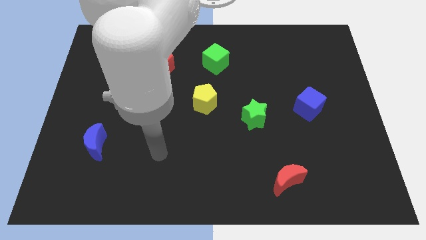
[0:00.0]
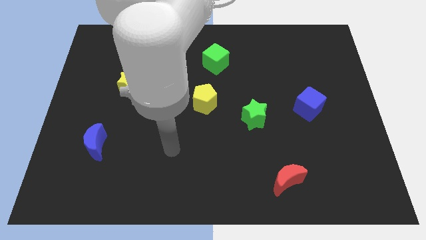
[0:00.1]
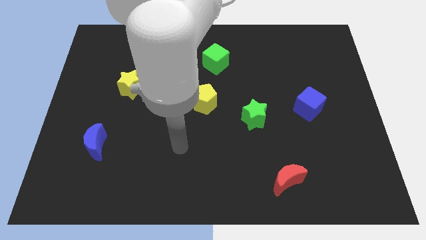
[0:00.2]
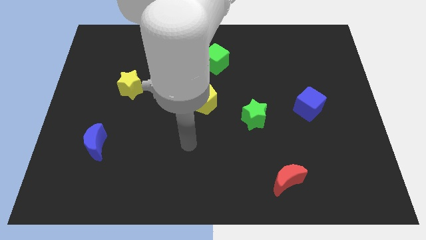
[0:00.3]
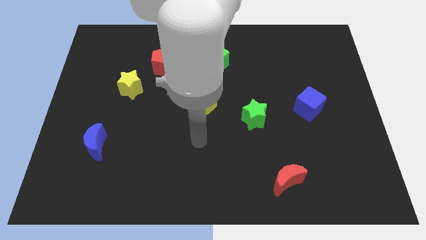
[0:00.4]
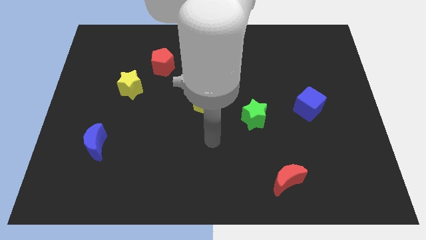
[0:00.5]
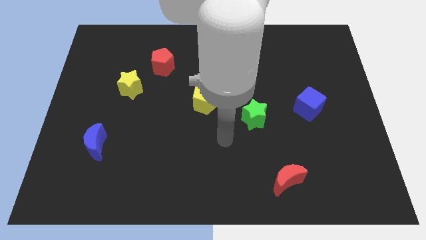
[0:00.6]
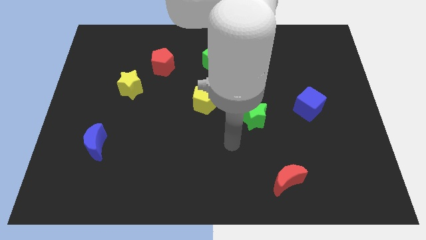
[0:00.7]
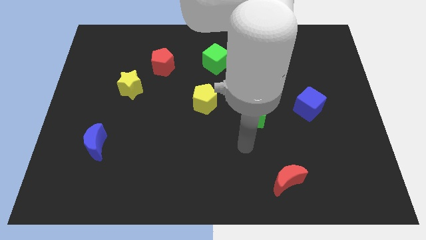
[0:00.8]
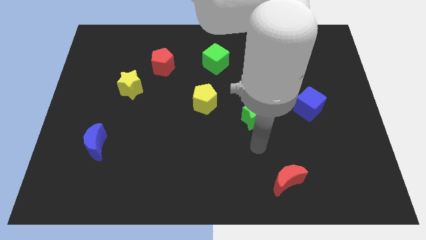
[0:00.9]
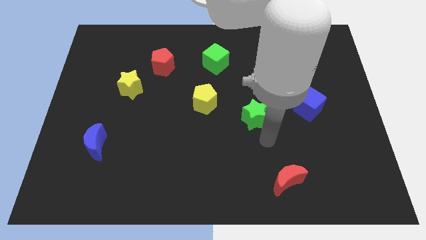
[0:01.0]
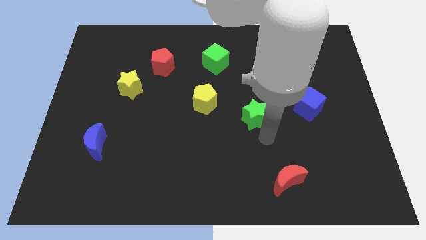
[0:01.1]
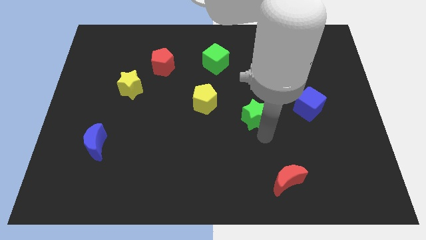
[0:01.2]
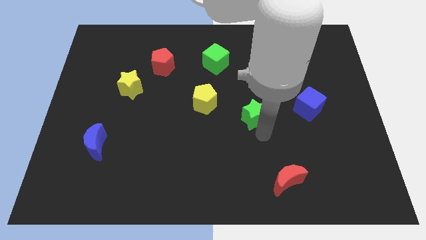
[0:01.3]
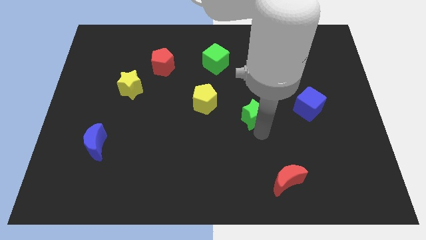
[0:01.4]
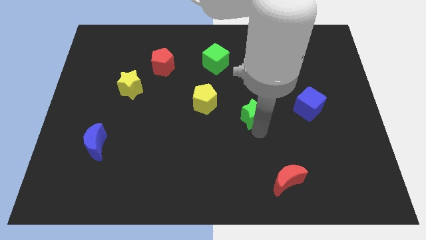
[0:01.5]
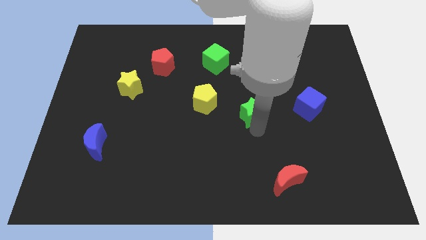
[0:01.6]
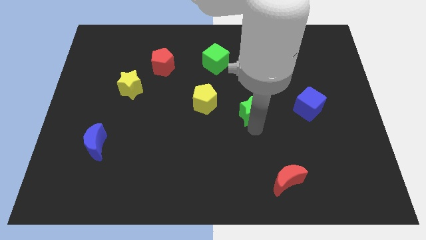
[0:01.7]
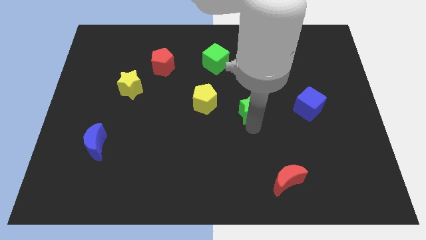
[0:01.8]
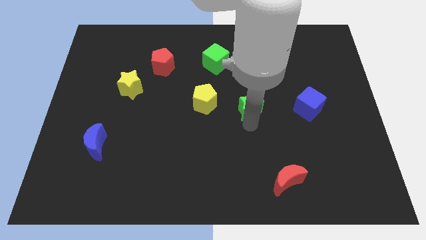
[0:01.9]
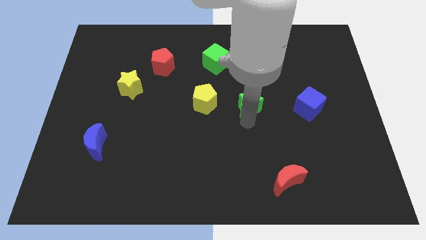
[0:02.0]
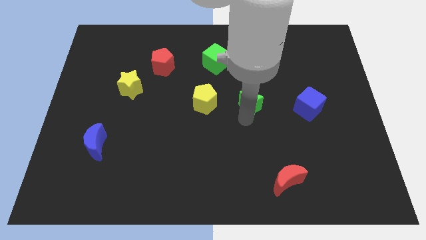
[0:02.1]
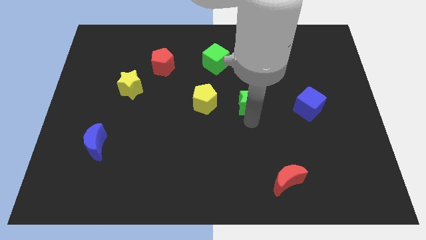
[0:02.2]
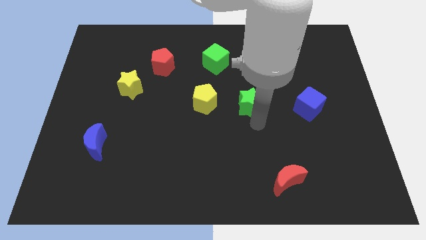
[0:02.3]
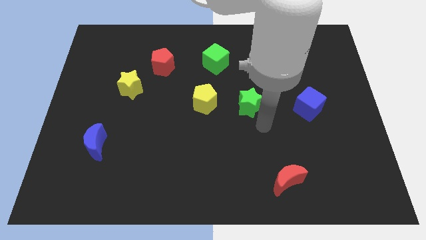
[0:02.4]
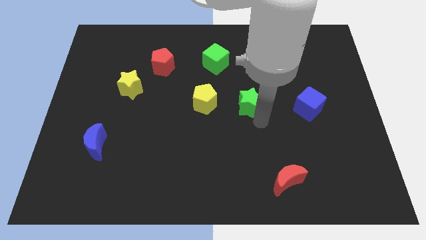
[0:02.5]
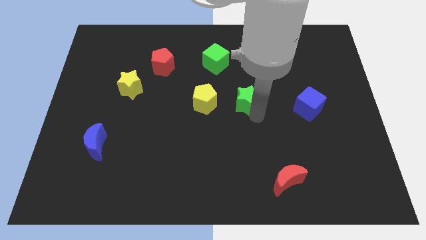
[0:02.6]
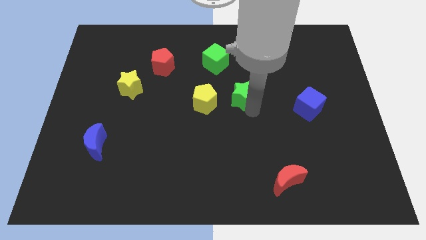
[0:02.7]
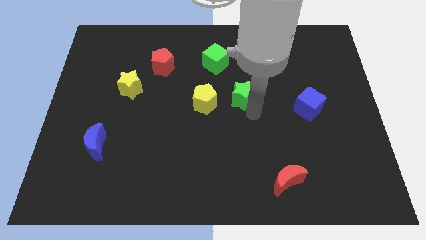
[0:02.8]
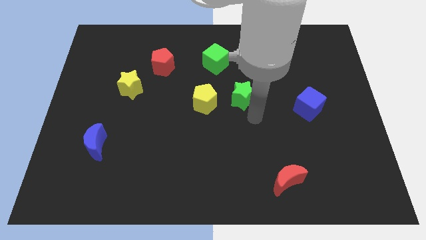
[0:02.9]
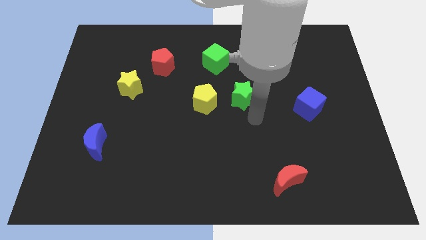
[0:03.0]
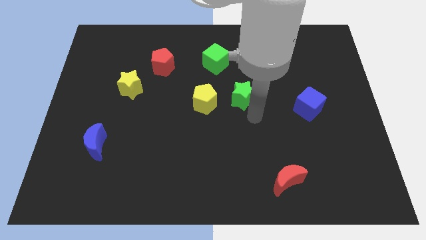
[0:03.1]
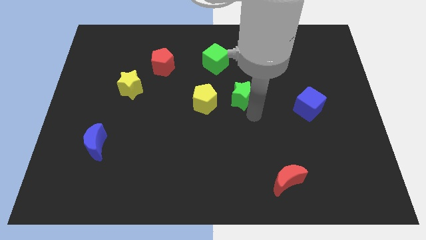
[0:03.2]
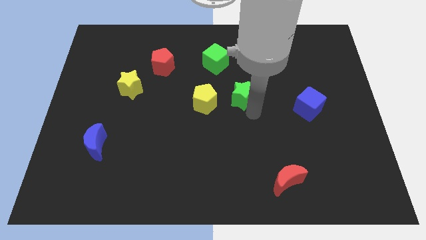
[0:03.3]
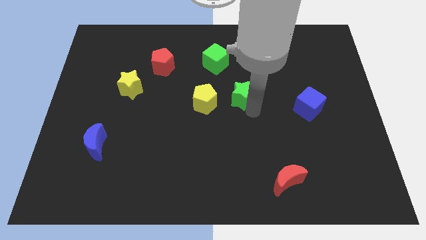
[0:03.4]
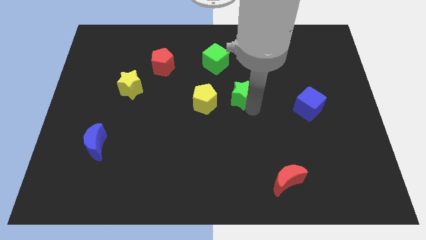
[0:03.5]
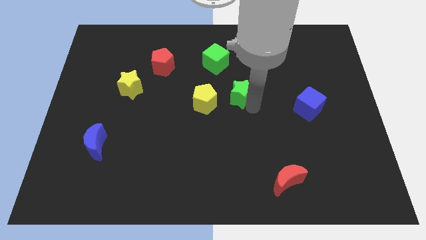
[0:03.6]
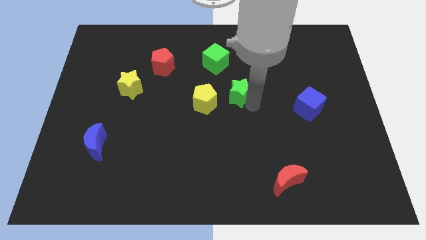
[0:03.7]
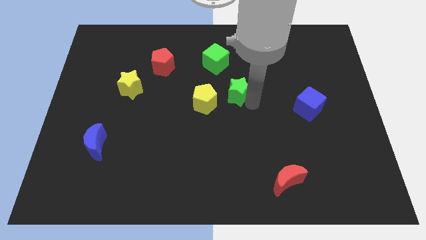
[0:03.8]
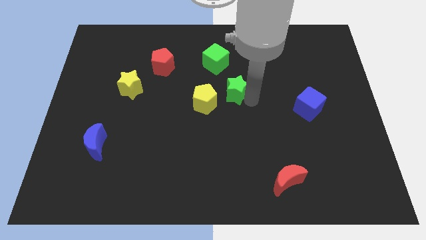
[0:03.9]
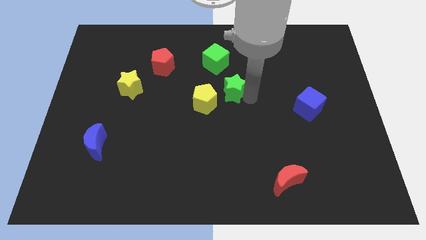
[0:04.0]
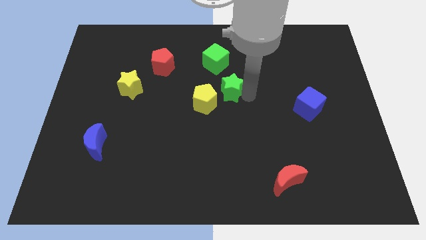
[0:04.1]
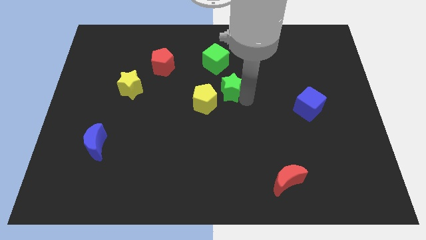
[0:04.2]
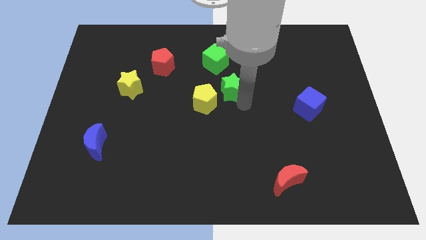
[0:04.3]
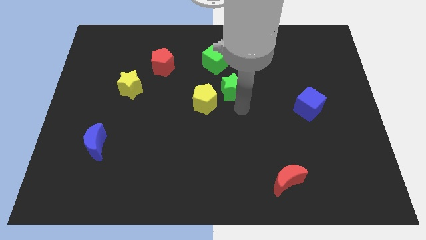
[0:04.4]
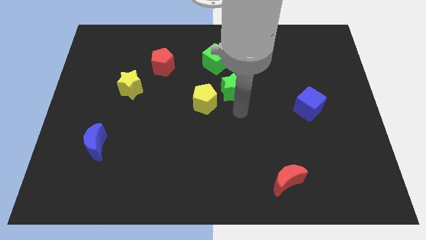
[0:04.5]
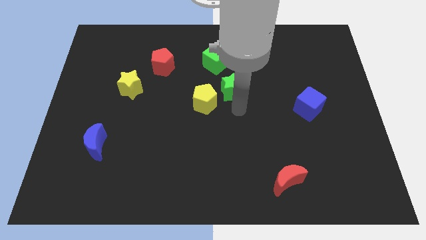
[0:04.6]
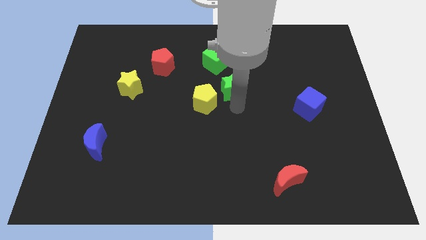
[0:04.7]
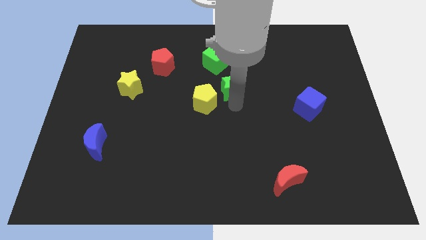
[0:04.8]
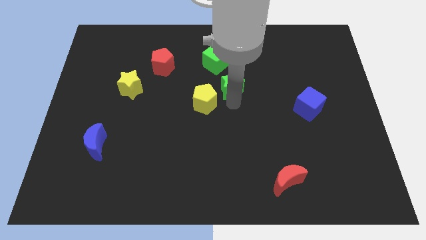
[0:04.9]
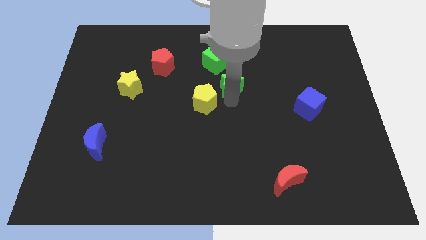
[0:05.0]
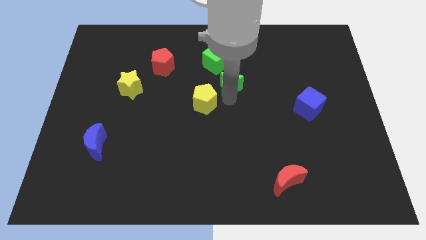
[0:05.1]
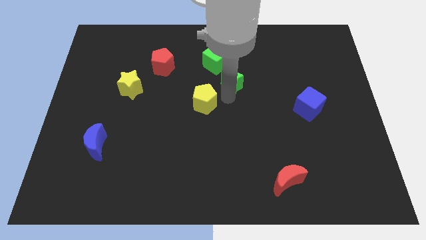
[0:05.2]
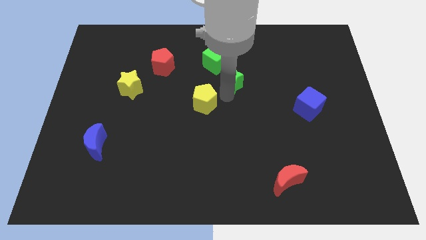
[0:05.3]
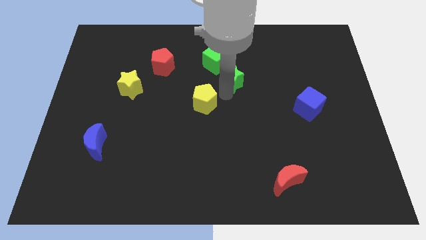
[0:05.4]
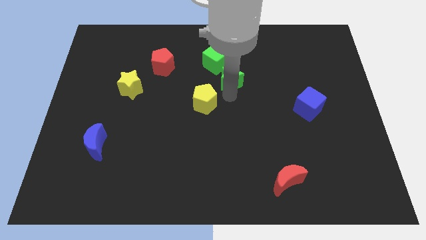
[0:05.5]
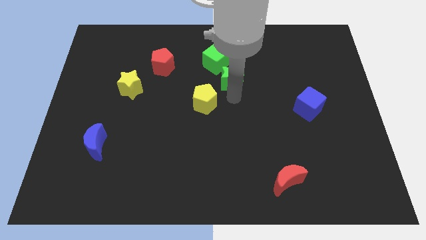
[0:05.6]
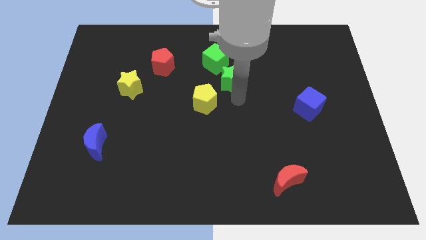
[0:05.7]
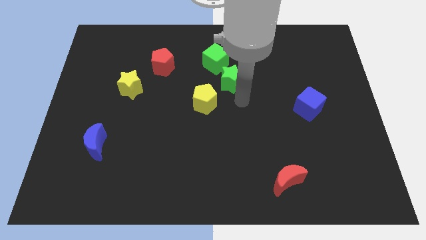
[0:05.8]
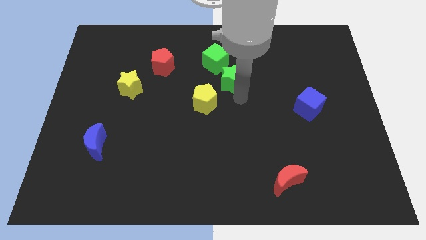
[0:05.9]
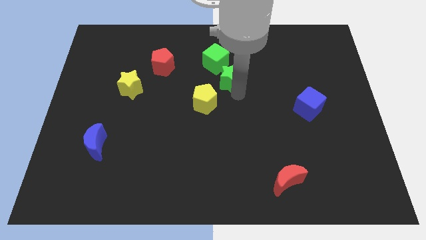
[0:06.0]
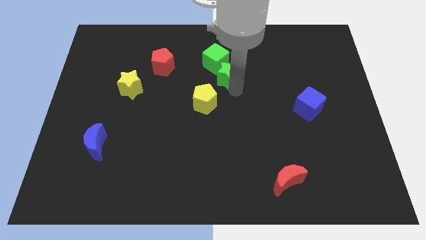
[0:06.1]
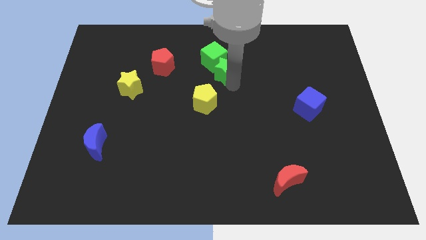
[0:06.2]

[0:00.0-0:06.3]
move the green star towards the green cube

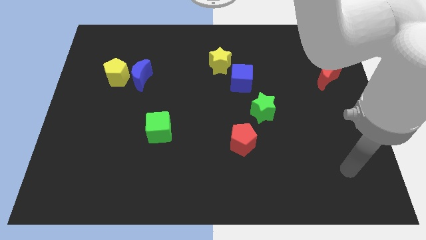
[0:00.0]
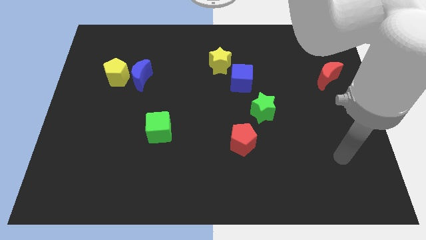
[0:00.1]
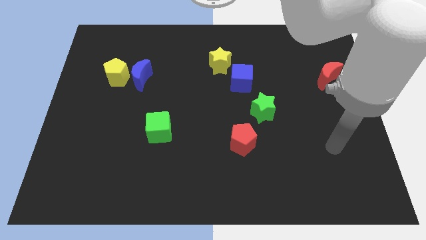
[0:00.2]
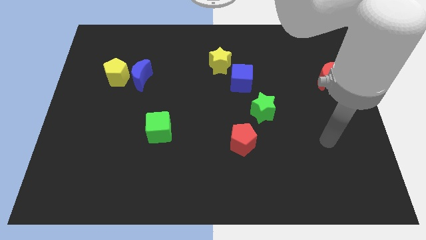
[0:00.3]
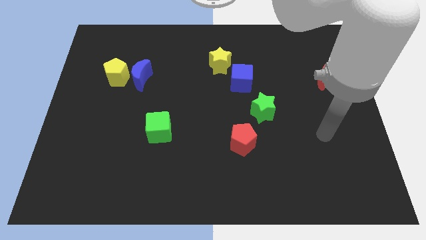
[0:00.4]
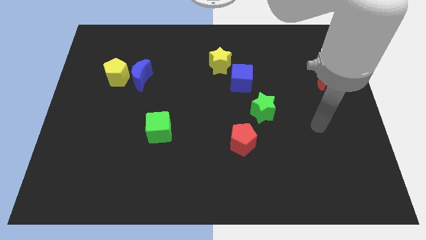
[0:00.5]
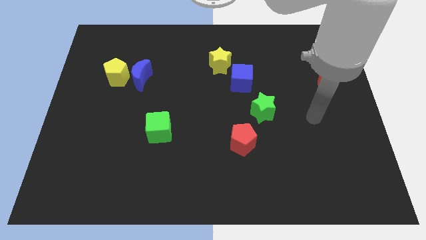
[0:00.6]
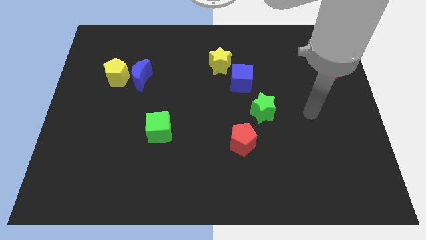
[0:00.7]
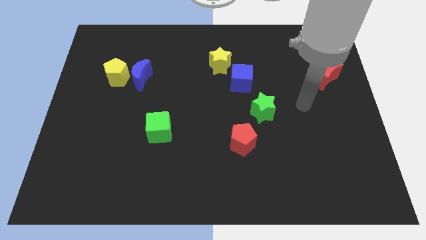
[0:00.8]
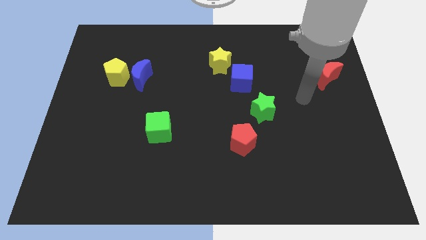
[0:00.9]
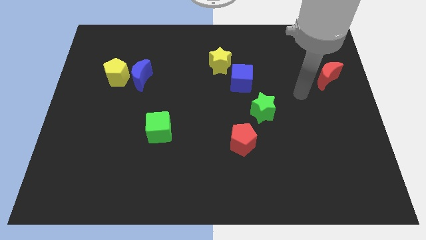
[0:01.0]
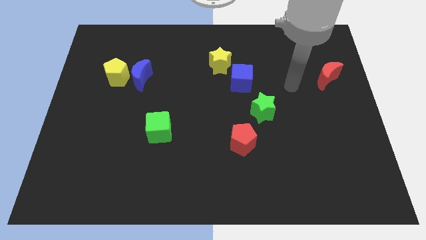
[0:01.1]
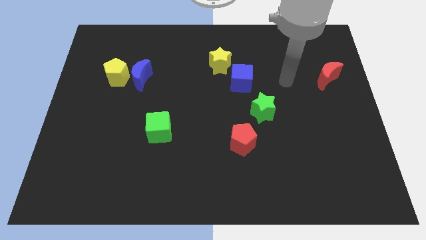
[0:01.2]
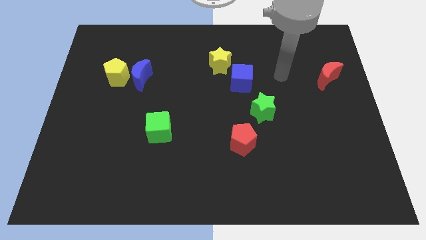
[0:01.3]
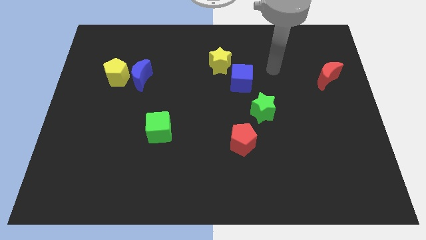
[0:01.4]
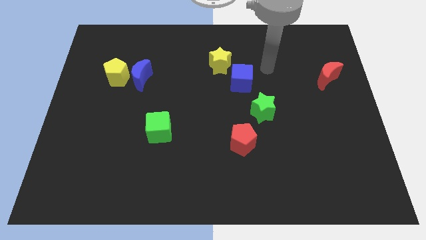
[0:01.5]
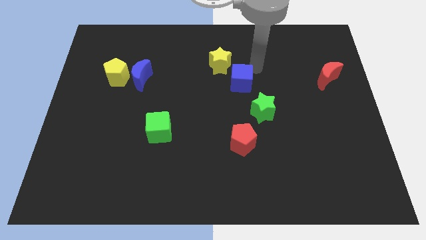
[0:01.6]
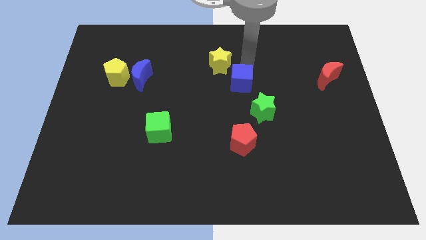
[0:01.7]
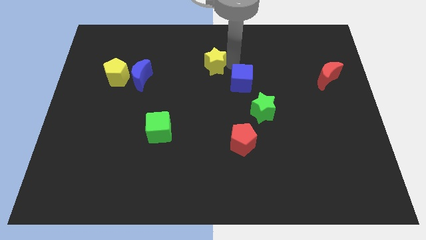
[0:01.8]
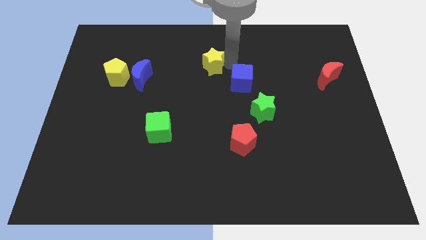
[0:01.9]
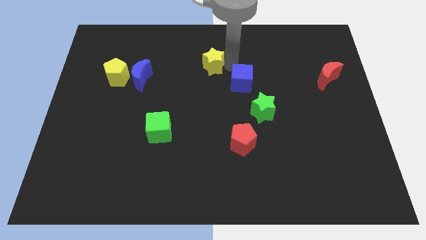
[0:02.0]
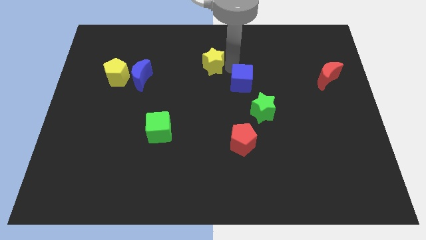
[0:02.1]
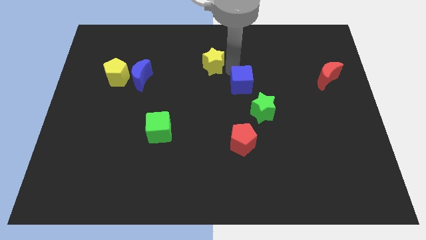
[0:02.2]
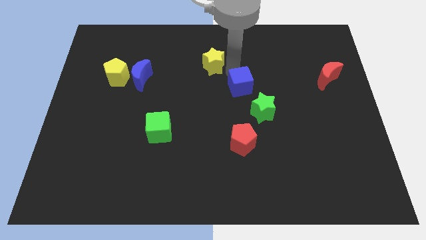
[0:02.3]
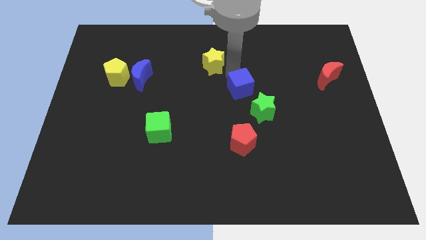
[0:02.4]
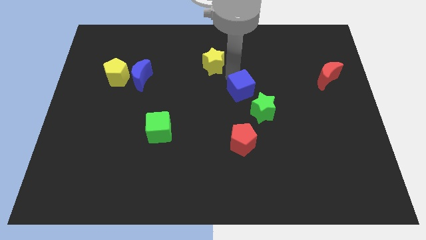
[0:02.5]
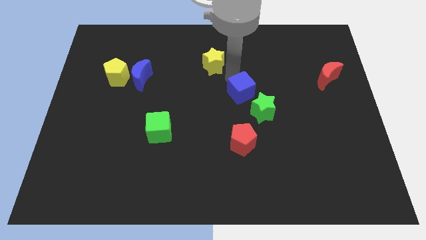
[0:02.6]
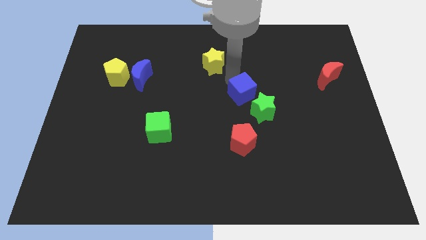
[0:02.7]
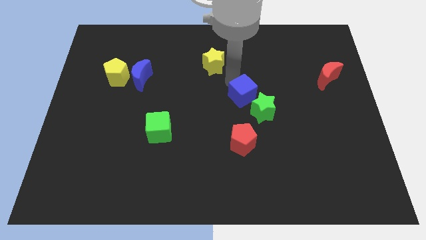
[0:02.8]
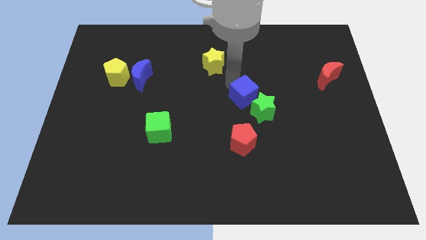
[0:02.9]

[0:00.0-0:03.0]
move the blue cube to the green star
